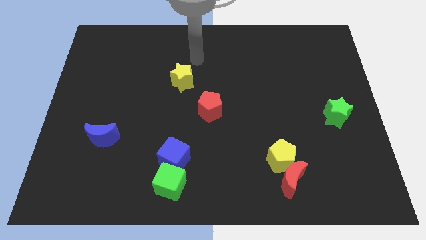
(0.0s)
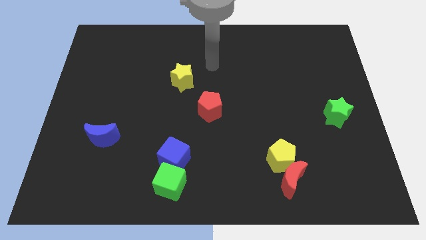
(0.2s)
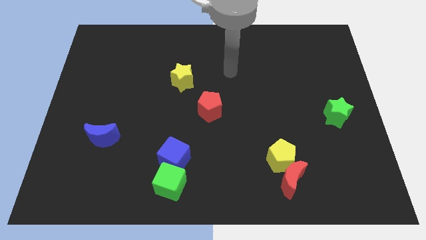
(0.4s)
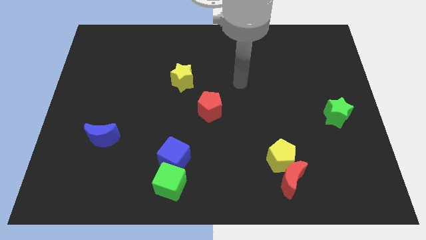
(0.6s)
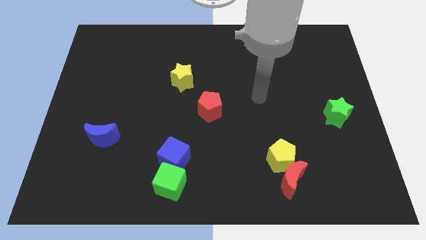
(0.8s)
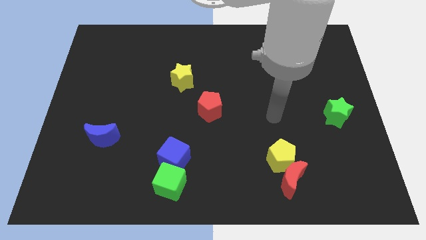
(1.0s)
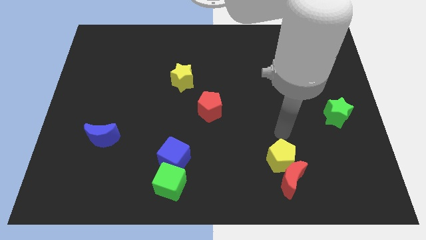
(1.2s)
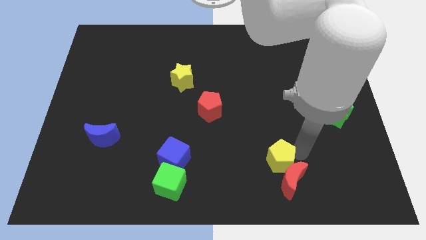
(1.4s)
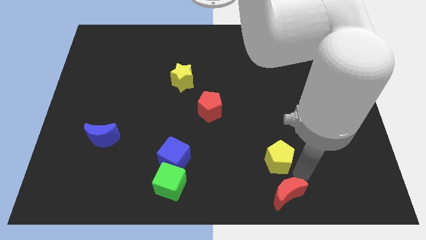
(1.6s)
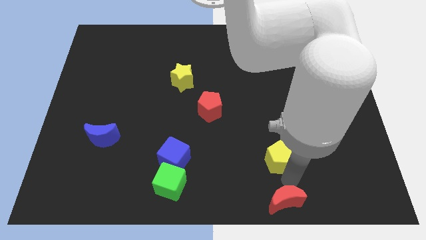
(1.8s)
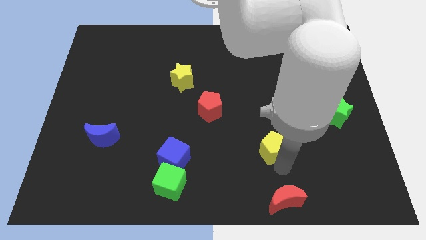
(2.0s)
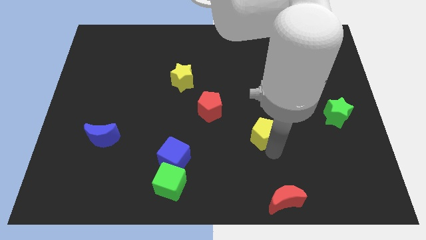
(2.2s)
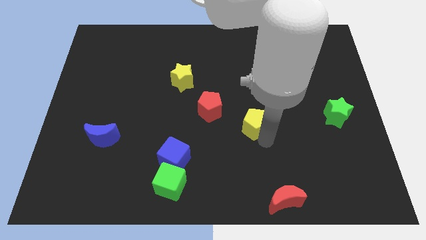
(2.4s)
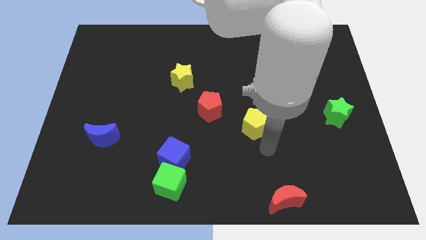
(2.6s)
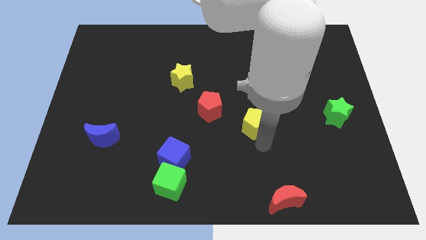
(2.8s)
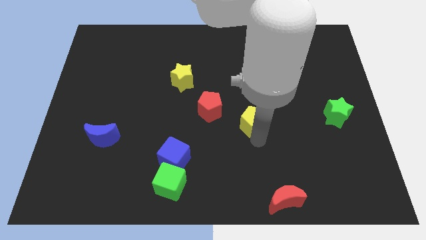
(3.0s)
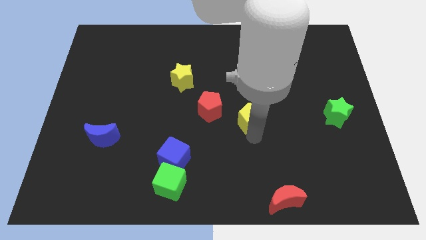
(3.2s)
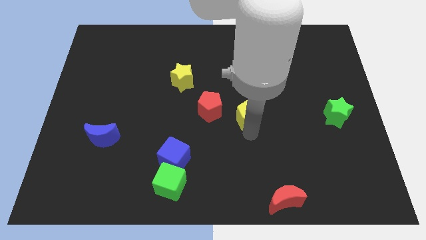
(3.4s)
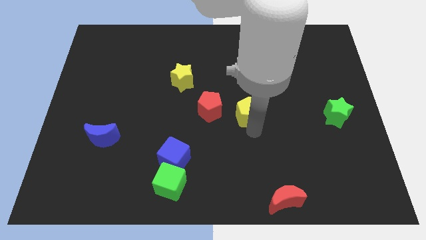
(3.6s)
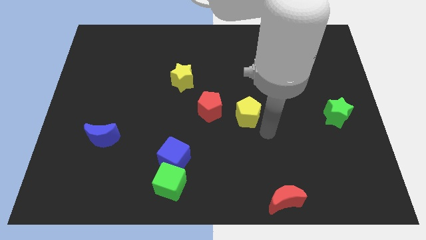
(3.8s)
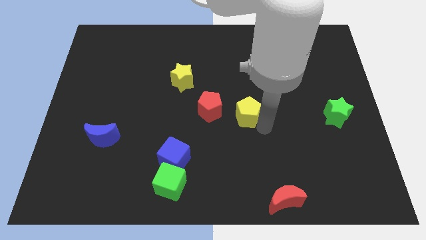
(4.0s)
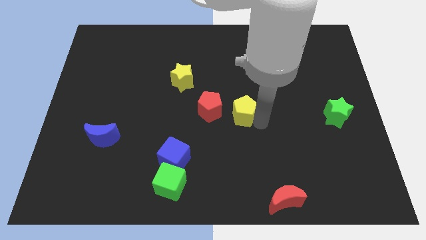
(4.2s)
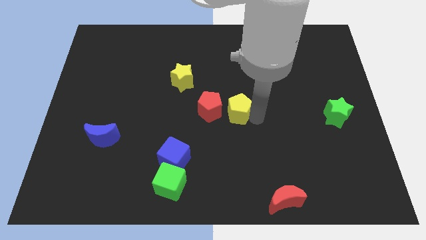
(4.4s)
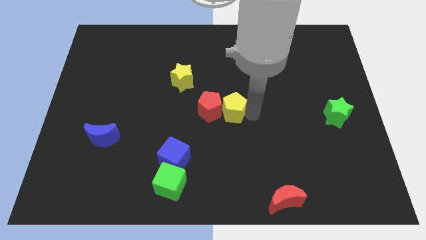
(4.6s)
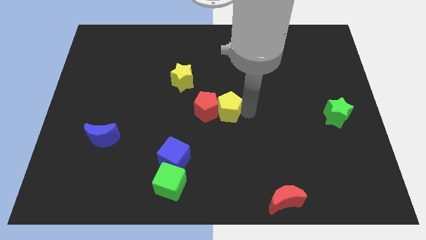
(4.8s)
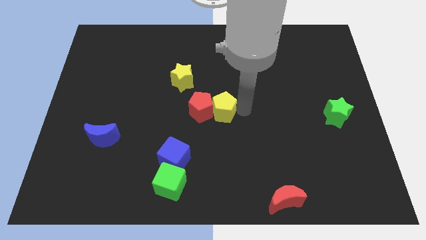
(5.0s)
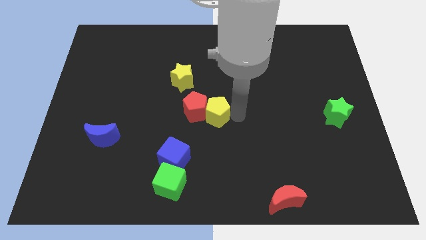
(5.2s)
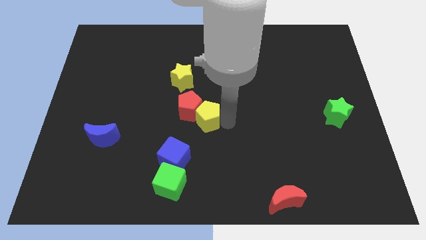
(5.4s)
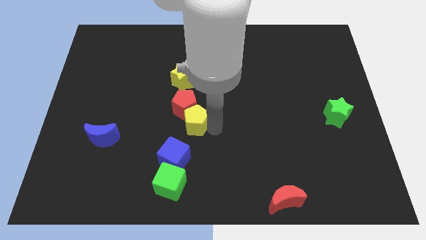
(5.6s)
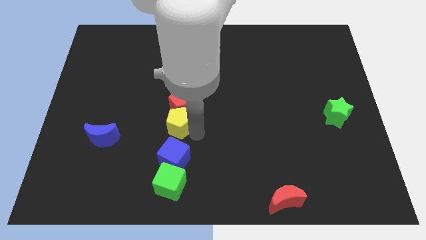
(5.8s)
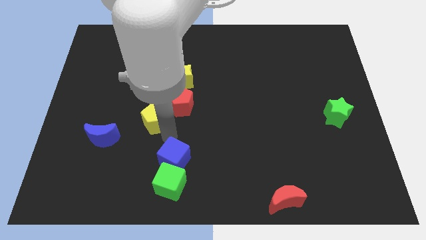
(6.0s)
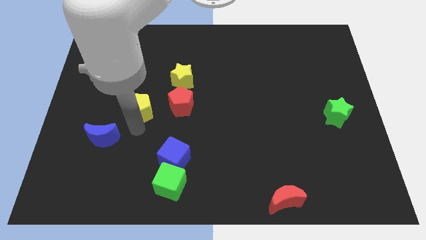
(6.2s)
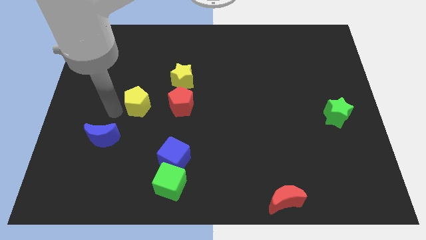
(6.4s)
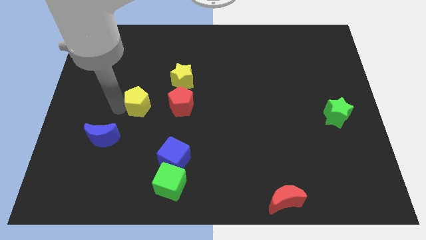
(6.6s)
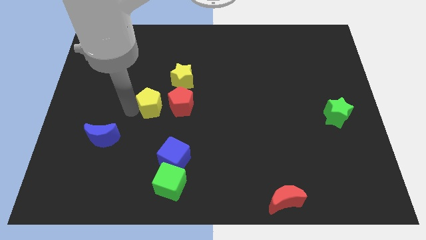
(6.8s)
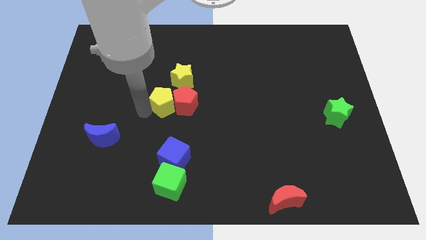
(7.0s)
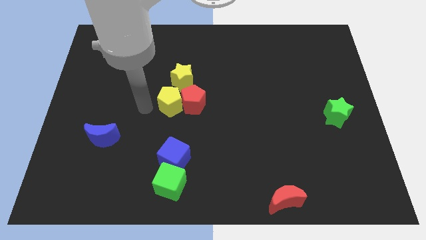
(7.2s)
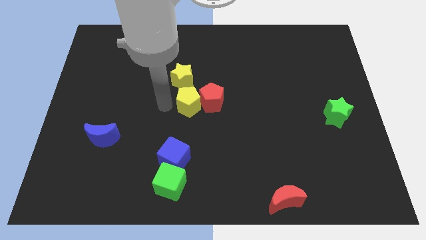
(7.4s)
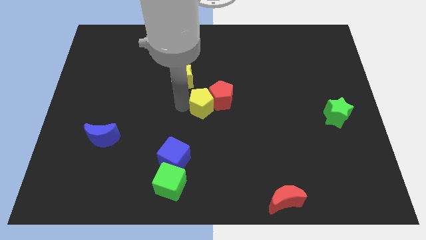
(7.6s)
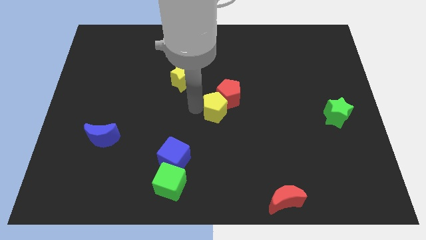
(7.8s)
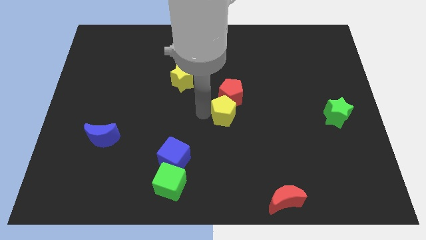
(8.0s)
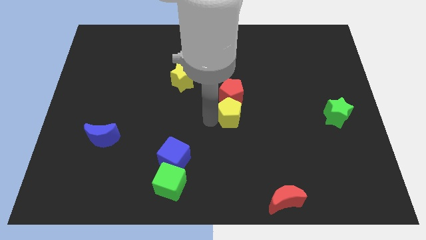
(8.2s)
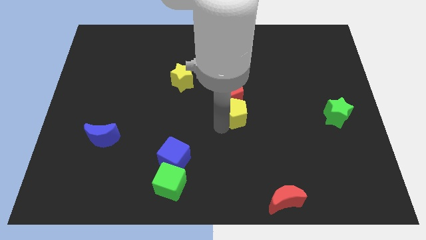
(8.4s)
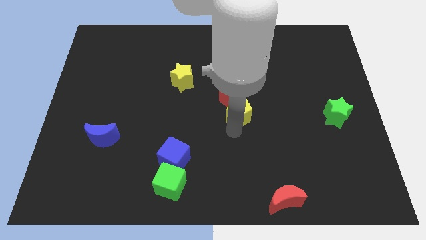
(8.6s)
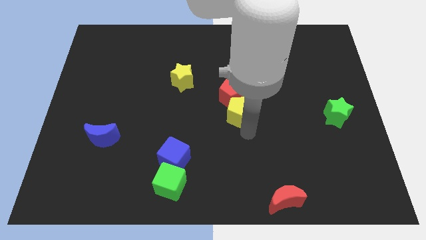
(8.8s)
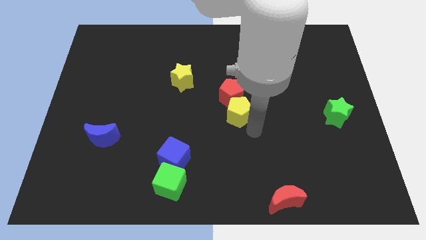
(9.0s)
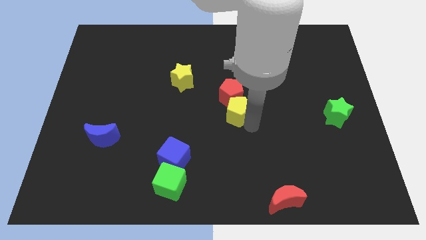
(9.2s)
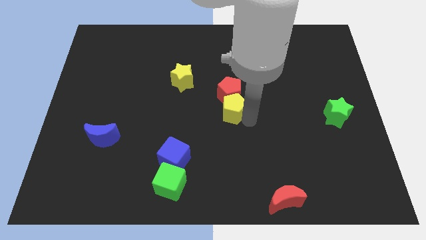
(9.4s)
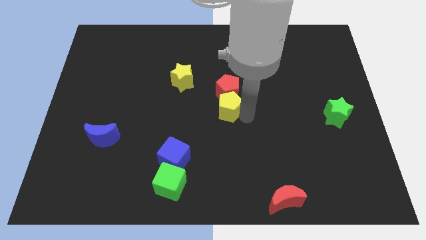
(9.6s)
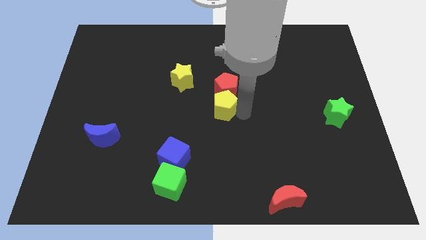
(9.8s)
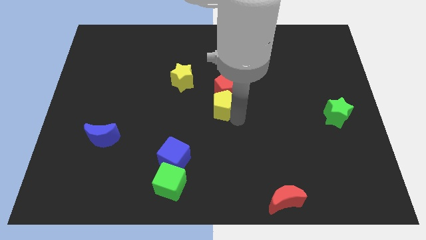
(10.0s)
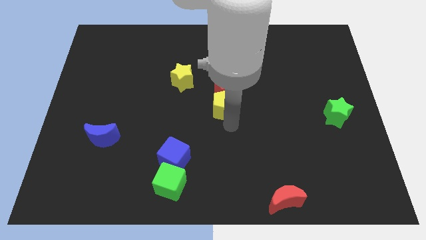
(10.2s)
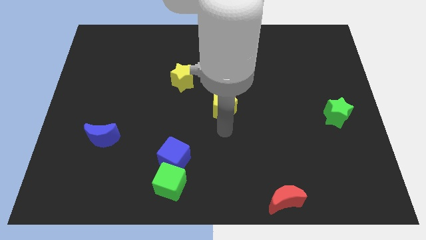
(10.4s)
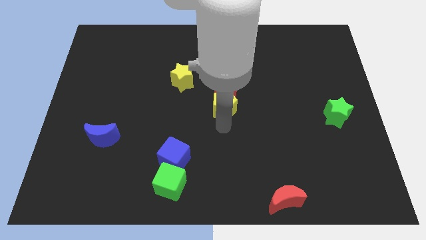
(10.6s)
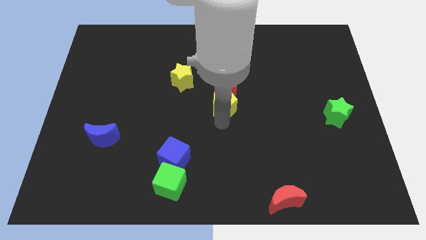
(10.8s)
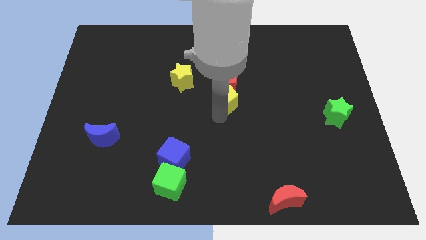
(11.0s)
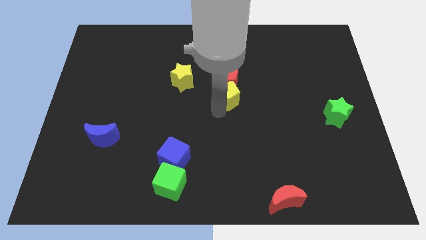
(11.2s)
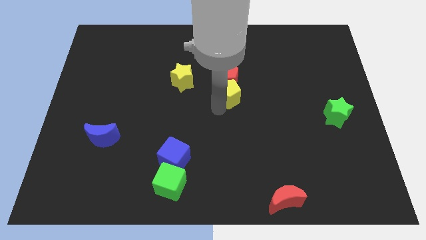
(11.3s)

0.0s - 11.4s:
slide the yellow pentagon just right of the yellow star

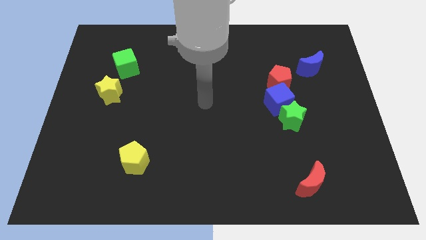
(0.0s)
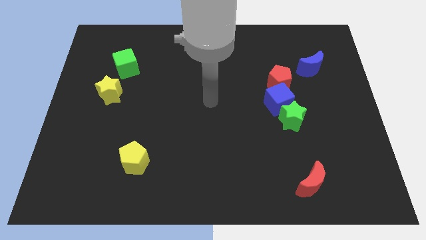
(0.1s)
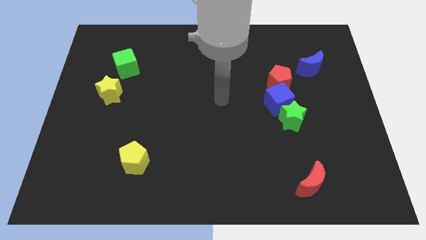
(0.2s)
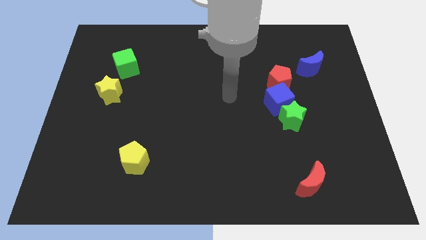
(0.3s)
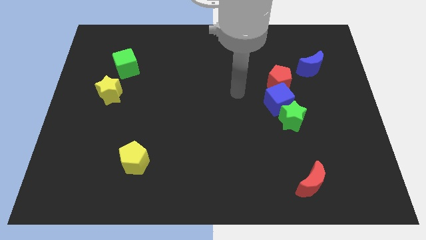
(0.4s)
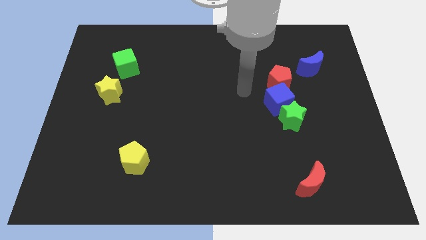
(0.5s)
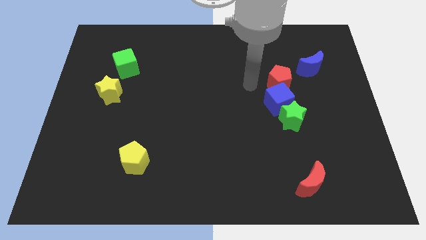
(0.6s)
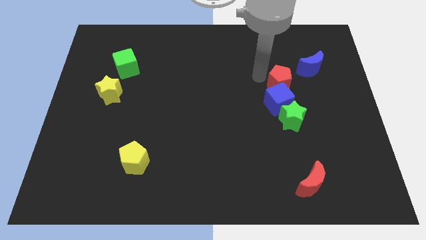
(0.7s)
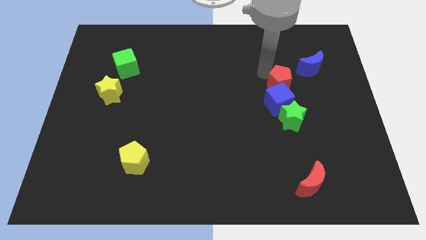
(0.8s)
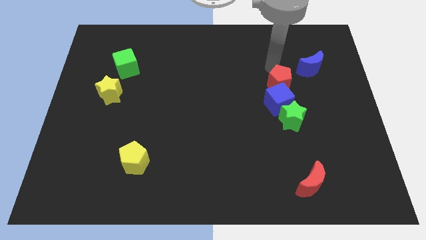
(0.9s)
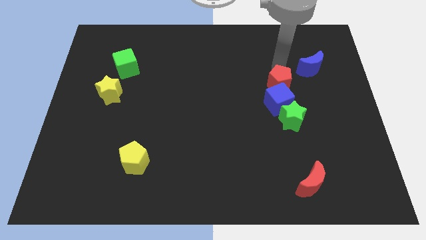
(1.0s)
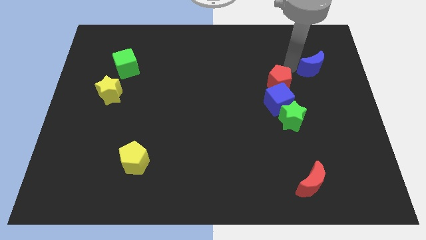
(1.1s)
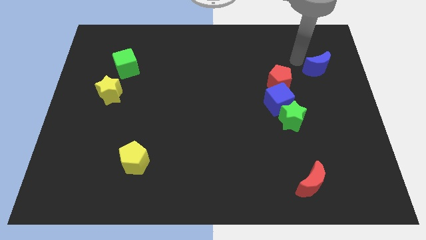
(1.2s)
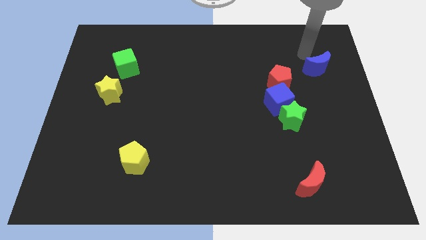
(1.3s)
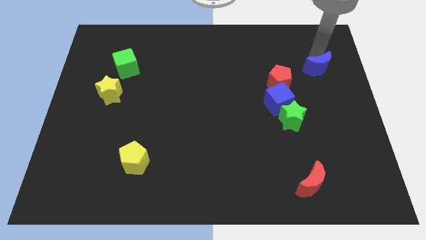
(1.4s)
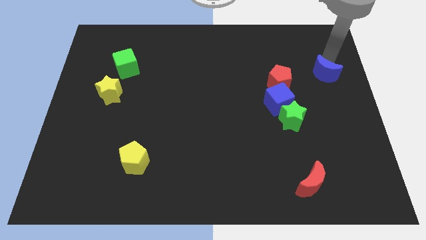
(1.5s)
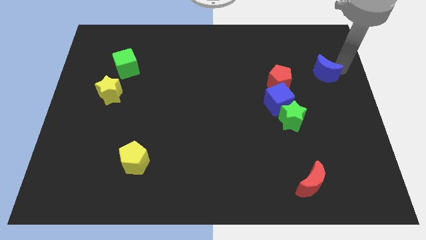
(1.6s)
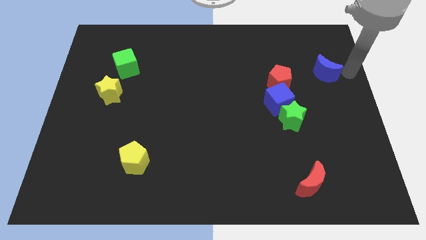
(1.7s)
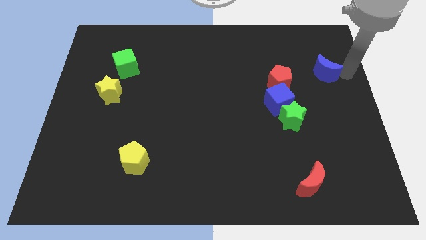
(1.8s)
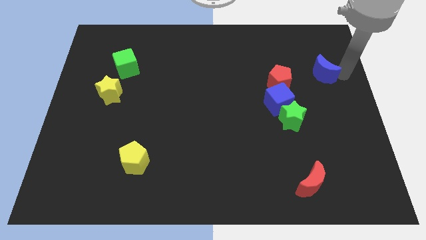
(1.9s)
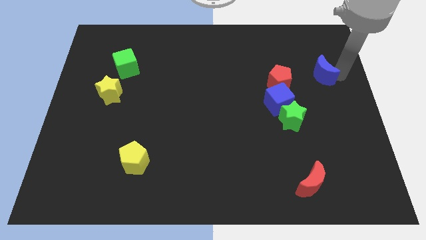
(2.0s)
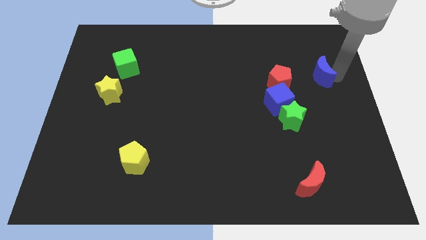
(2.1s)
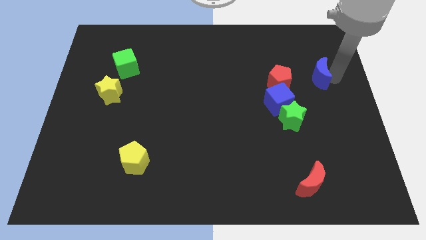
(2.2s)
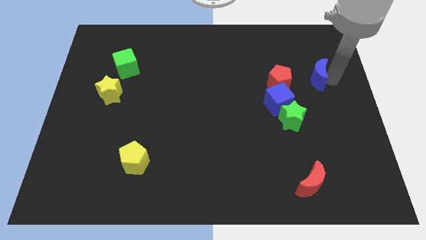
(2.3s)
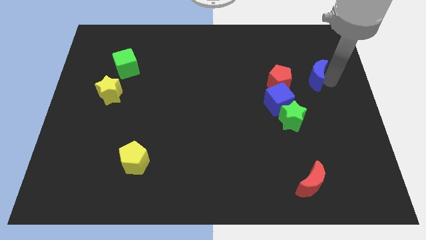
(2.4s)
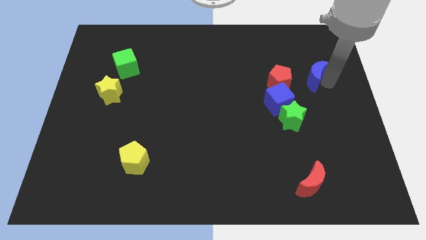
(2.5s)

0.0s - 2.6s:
slide the blue moon to the top right side of the blue cube
